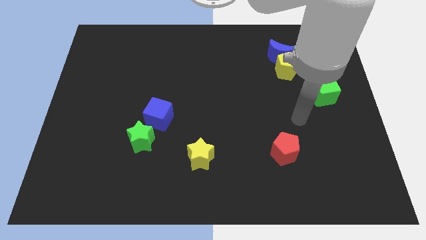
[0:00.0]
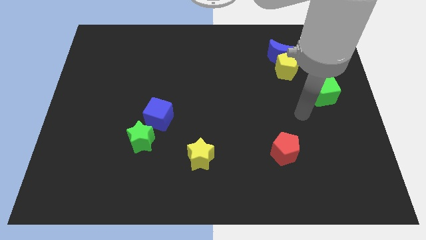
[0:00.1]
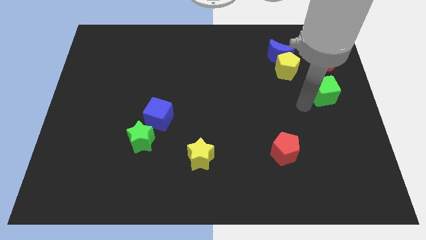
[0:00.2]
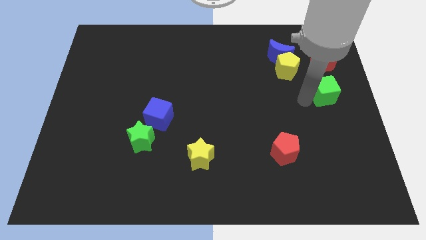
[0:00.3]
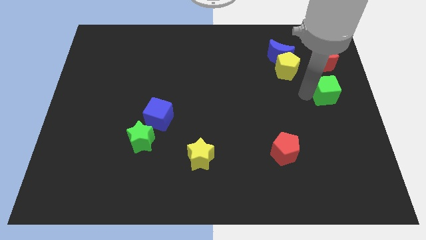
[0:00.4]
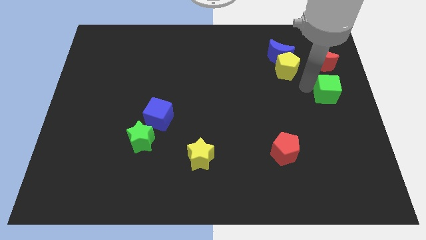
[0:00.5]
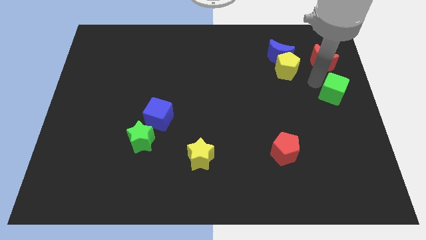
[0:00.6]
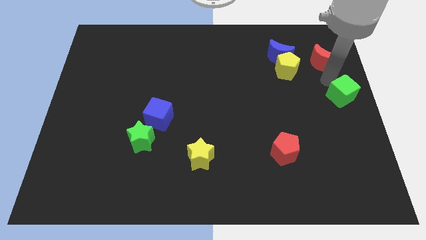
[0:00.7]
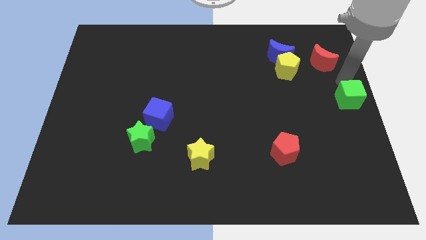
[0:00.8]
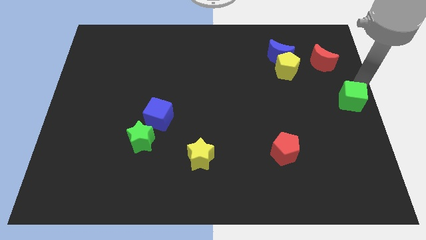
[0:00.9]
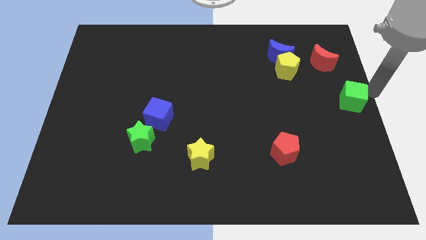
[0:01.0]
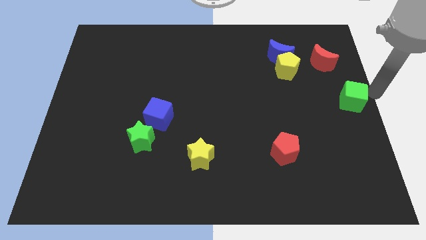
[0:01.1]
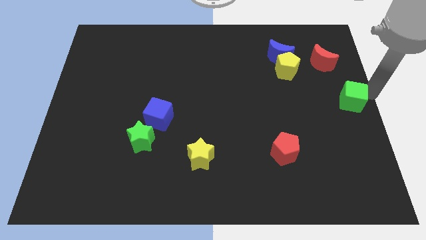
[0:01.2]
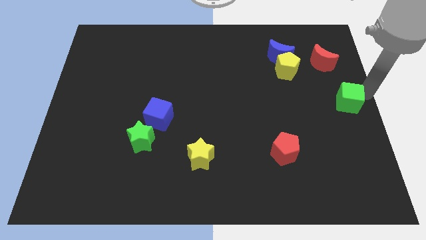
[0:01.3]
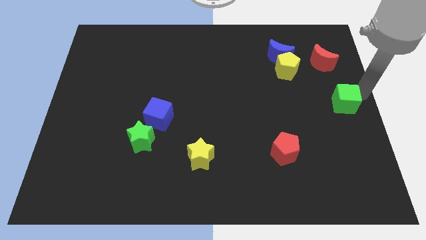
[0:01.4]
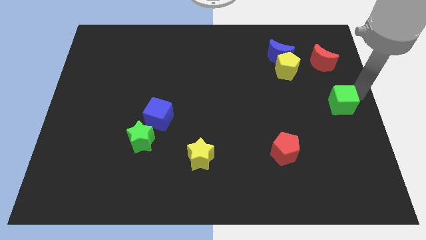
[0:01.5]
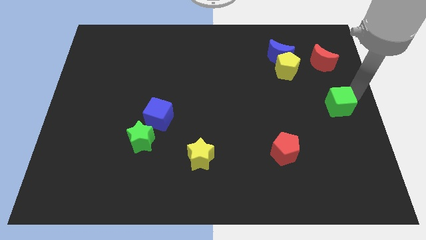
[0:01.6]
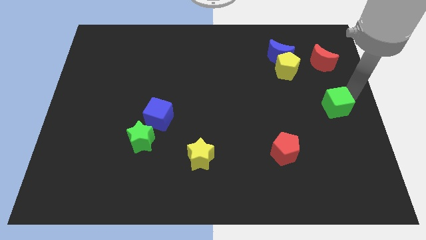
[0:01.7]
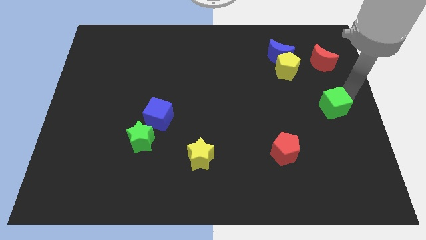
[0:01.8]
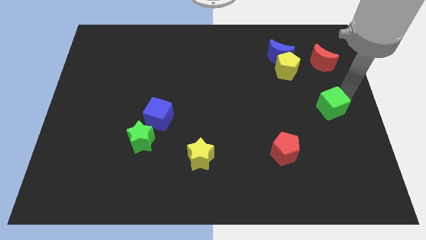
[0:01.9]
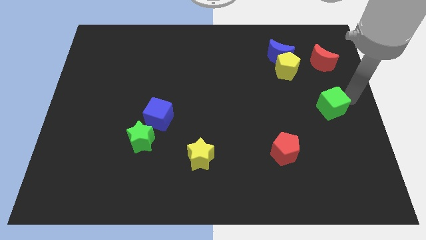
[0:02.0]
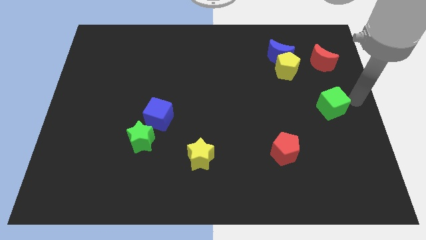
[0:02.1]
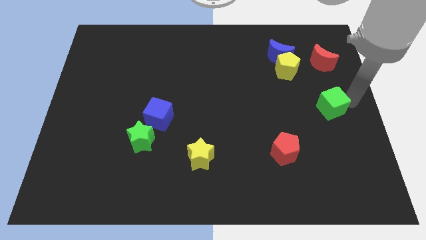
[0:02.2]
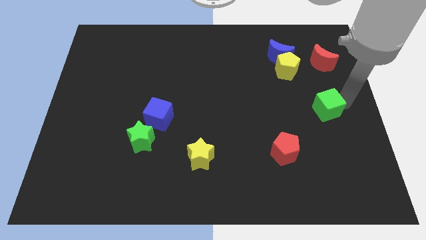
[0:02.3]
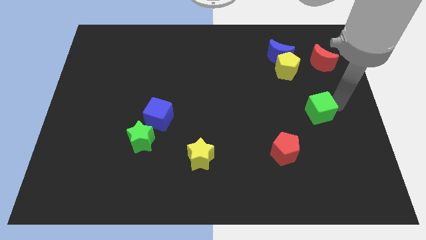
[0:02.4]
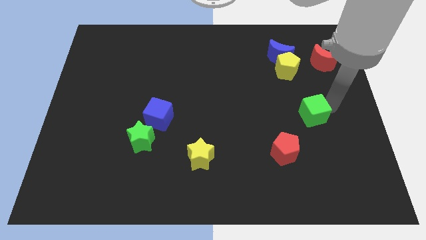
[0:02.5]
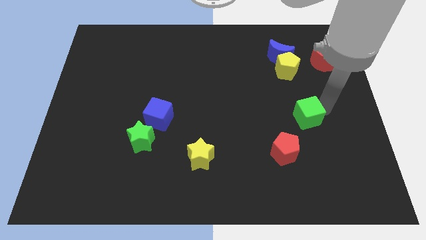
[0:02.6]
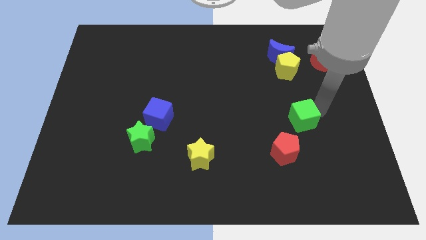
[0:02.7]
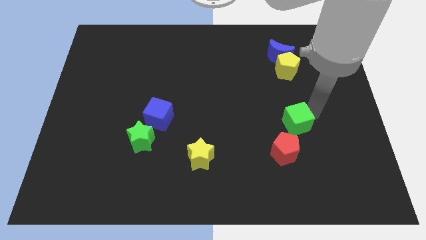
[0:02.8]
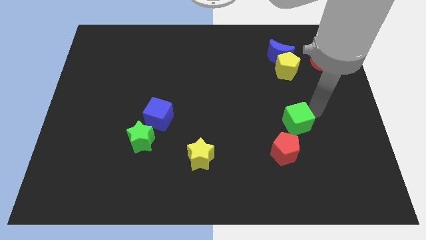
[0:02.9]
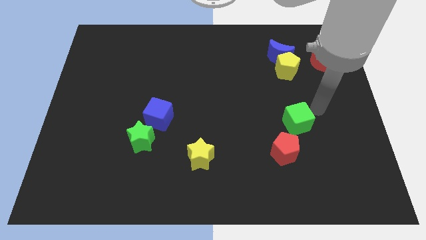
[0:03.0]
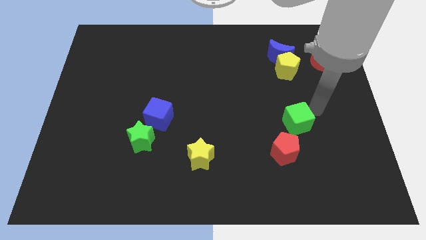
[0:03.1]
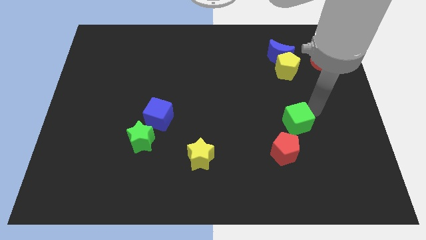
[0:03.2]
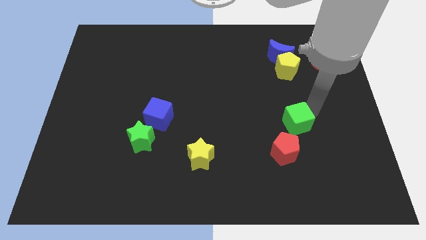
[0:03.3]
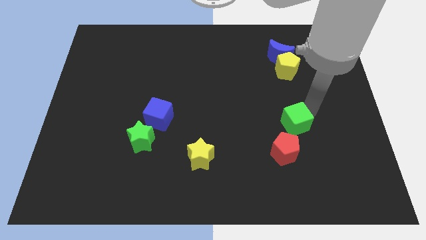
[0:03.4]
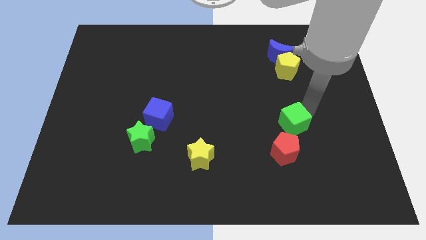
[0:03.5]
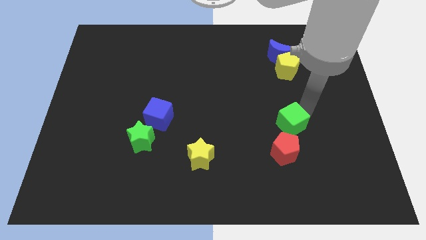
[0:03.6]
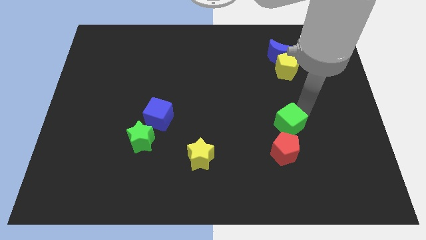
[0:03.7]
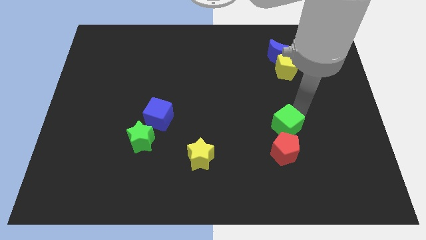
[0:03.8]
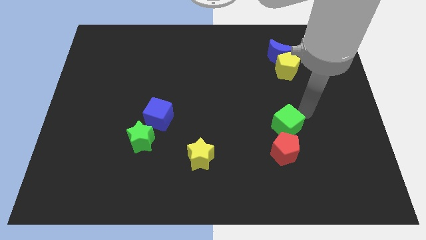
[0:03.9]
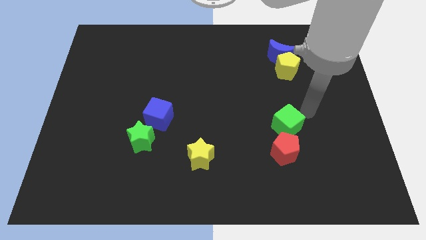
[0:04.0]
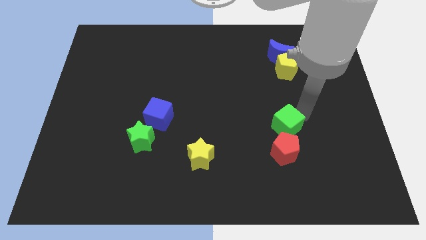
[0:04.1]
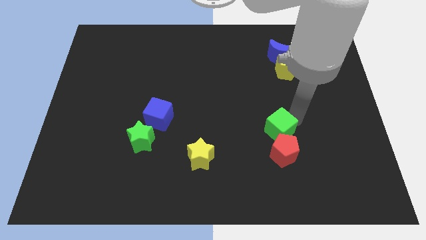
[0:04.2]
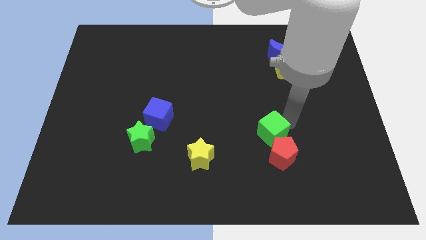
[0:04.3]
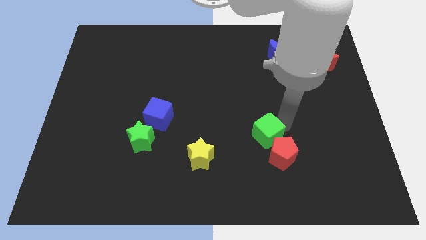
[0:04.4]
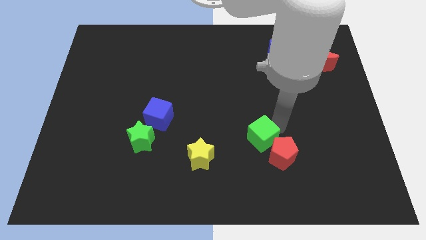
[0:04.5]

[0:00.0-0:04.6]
push the green cube downwards and left

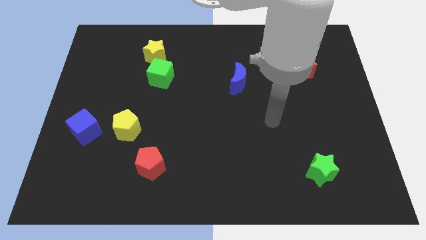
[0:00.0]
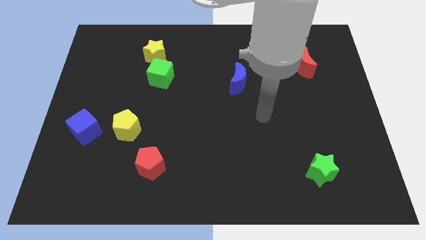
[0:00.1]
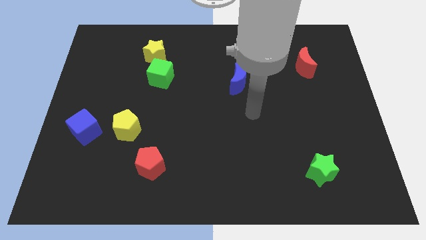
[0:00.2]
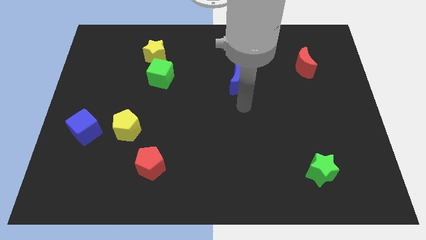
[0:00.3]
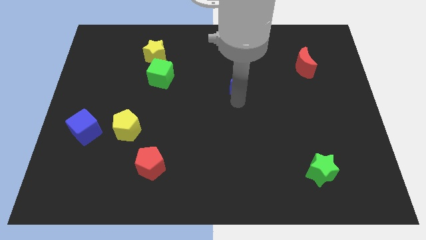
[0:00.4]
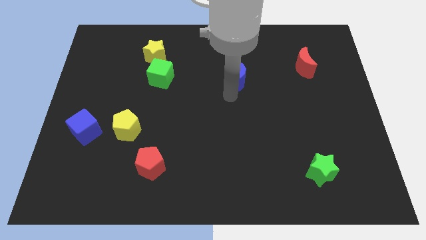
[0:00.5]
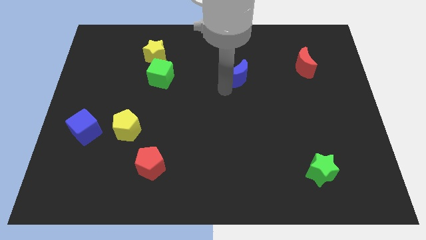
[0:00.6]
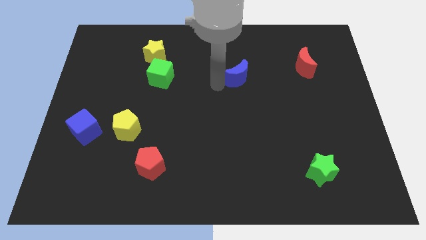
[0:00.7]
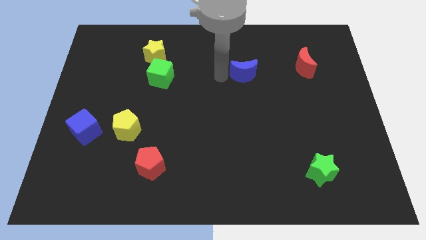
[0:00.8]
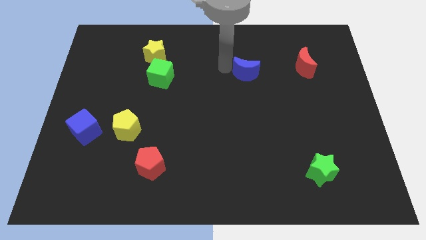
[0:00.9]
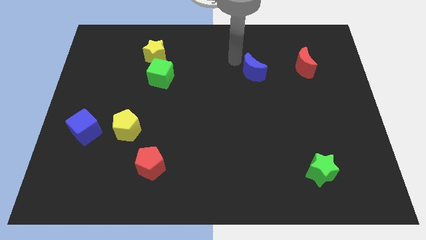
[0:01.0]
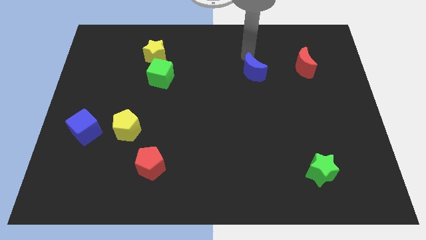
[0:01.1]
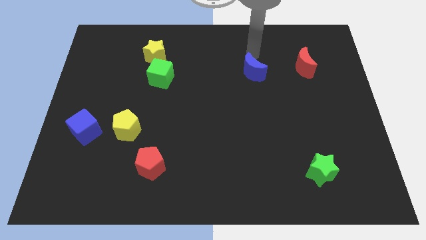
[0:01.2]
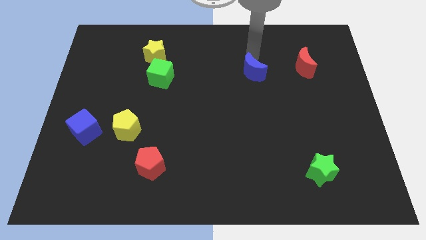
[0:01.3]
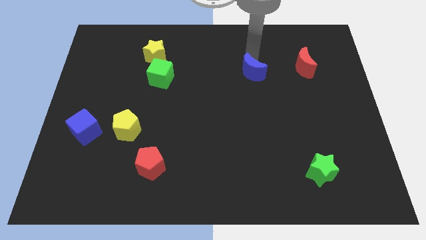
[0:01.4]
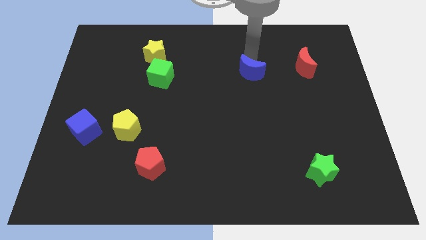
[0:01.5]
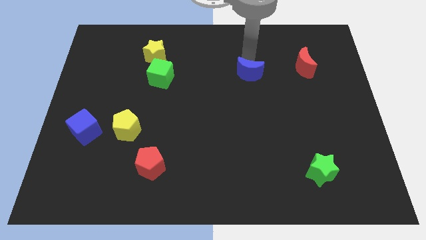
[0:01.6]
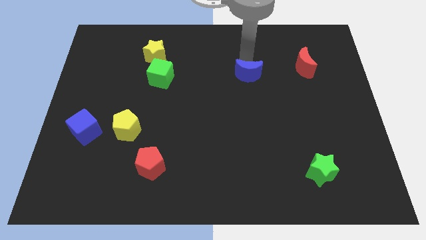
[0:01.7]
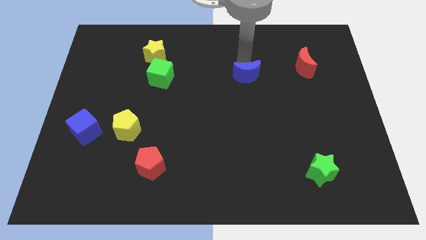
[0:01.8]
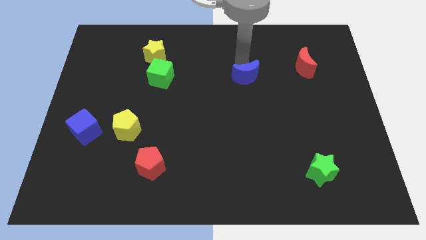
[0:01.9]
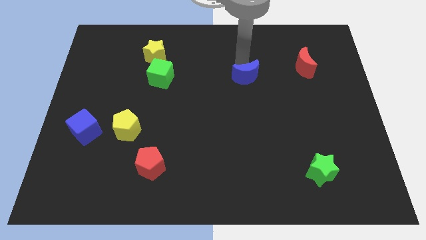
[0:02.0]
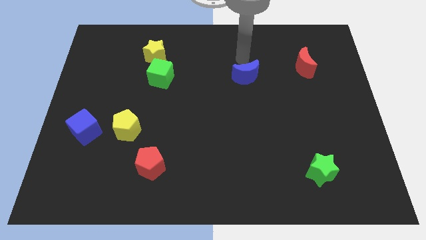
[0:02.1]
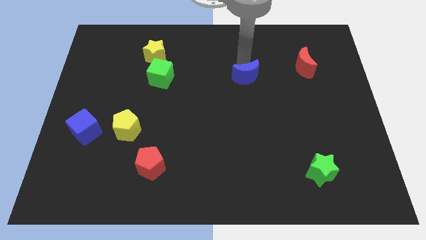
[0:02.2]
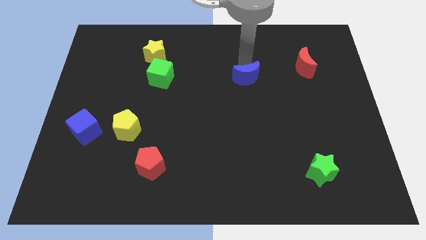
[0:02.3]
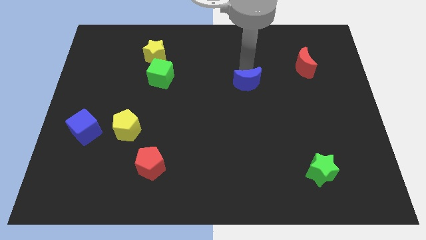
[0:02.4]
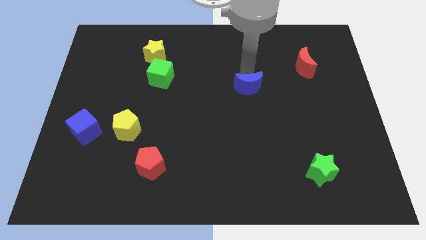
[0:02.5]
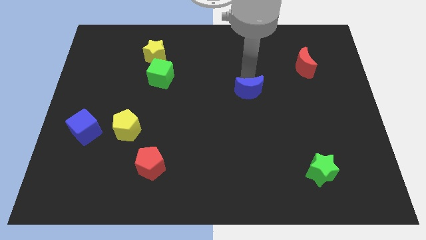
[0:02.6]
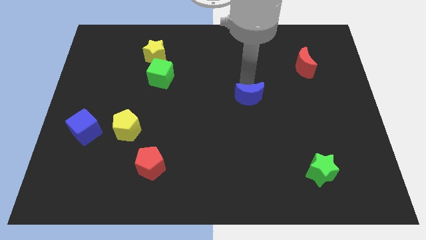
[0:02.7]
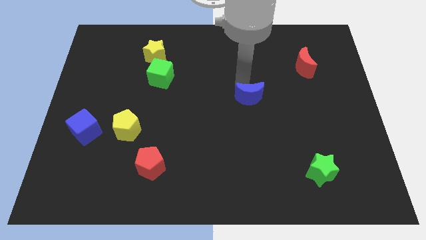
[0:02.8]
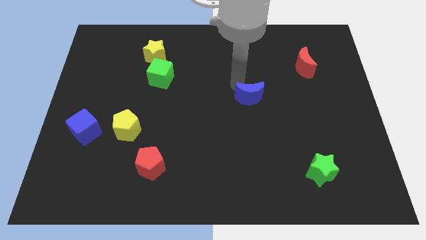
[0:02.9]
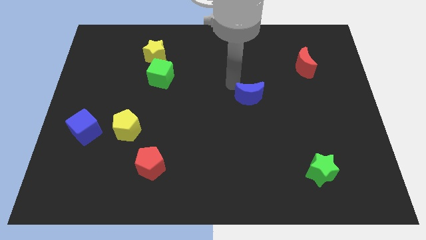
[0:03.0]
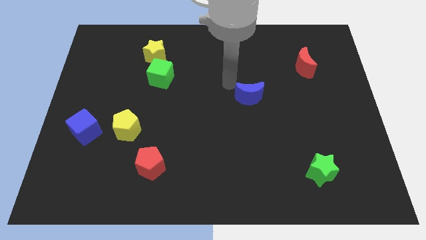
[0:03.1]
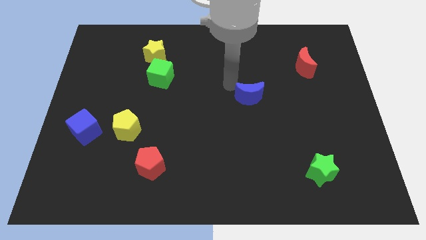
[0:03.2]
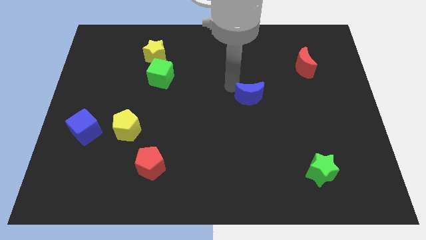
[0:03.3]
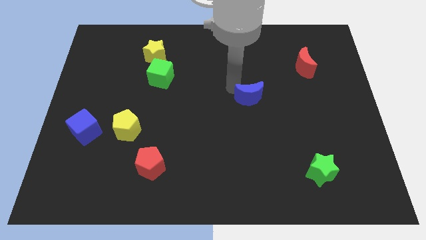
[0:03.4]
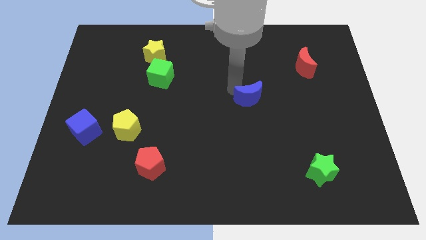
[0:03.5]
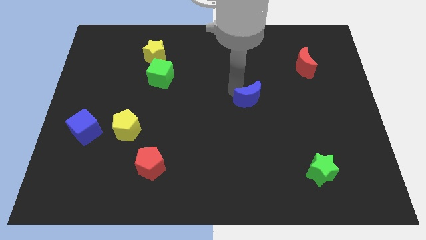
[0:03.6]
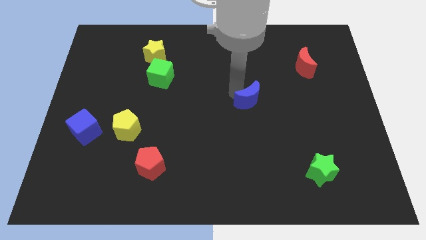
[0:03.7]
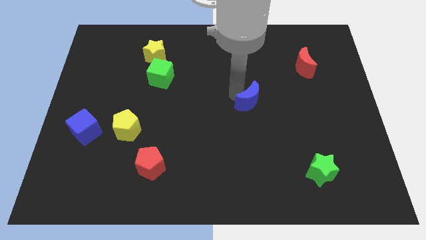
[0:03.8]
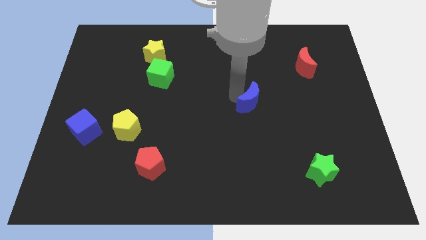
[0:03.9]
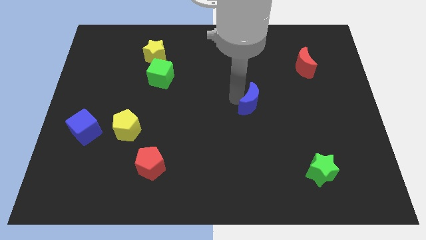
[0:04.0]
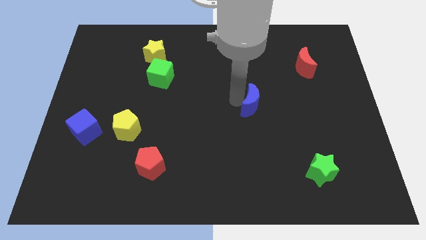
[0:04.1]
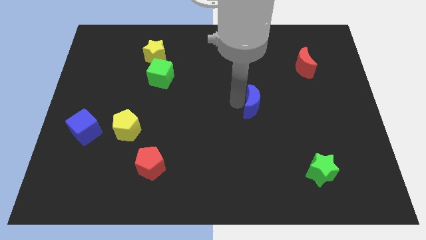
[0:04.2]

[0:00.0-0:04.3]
slightly push the blue moon down and right
